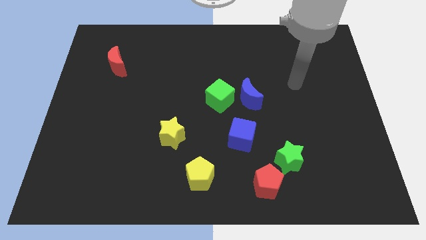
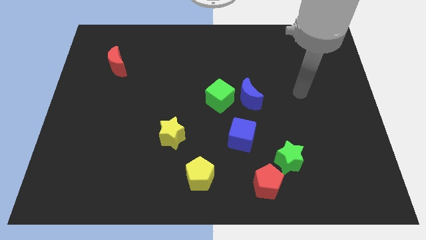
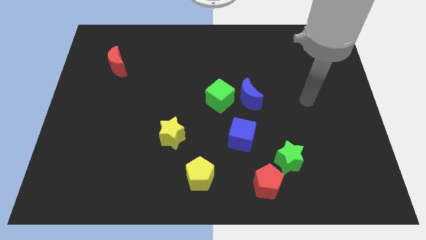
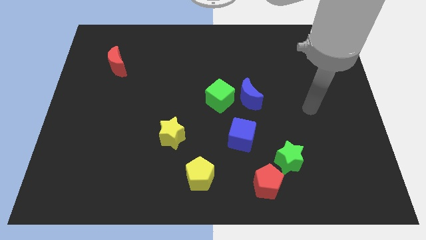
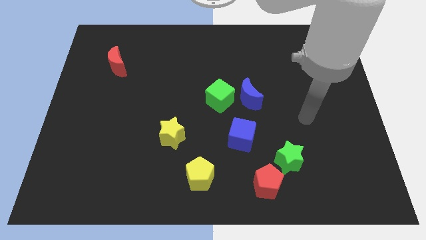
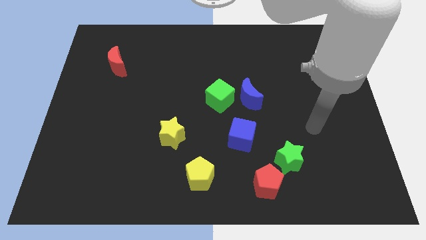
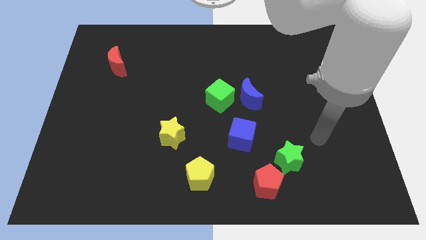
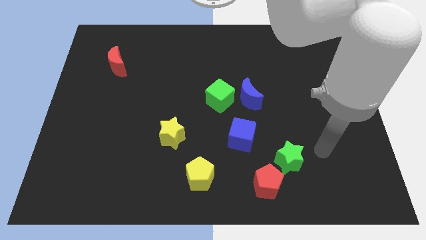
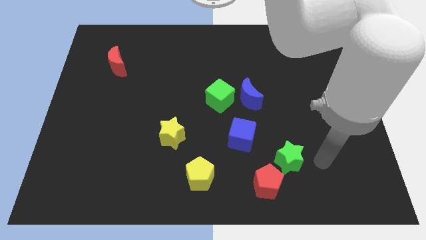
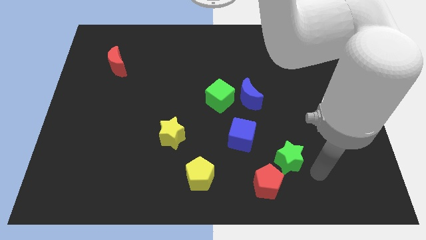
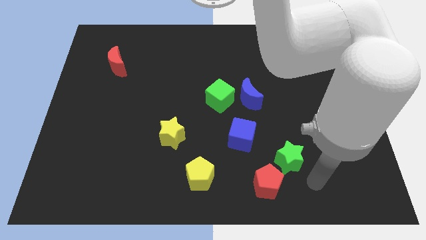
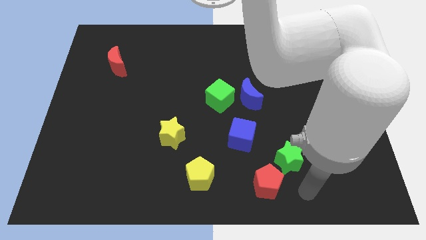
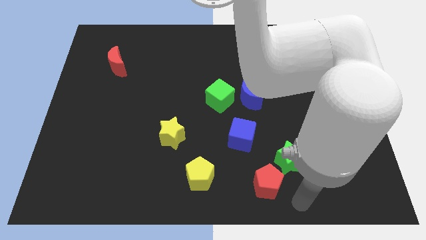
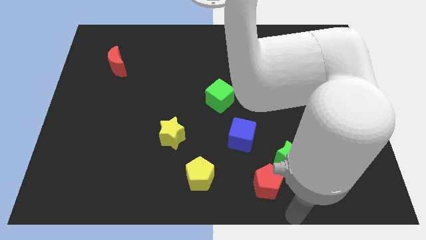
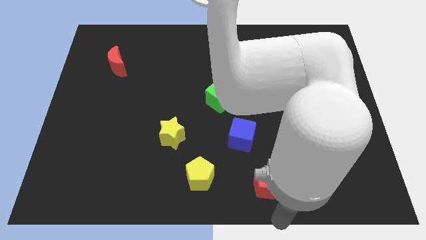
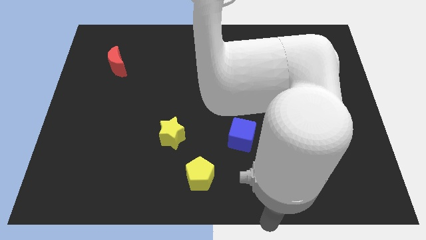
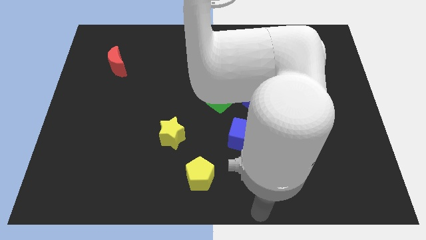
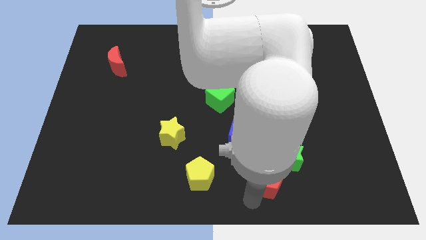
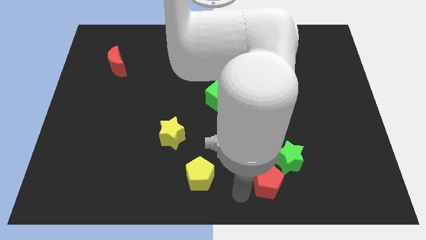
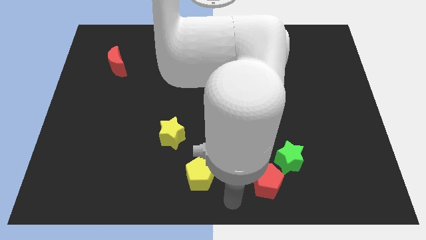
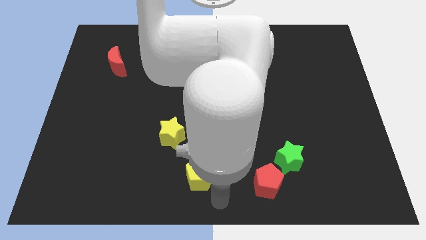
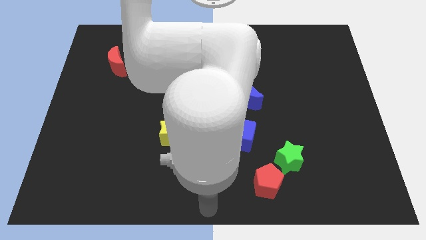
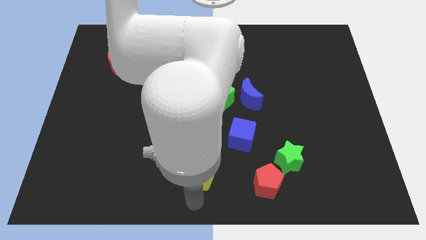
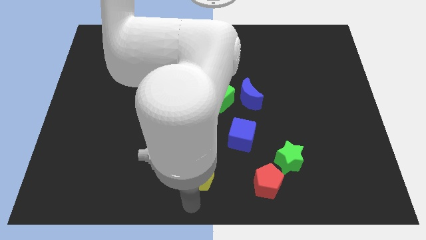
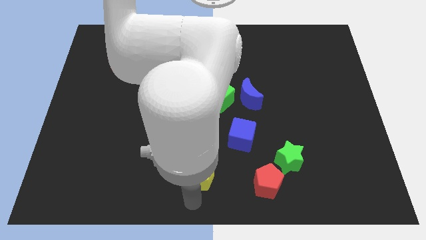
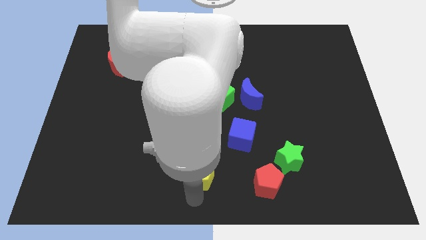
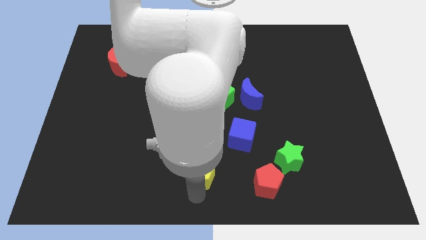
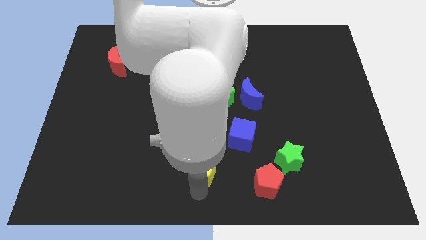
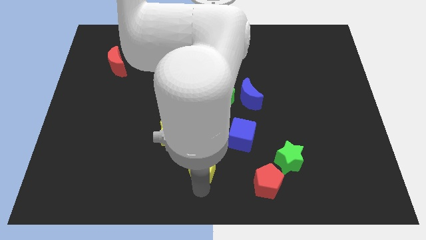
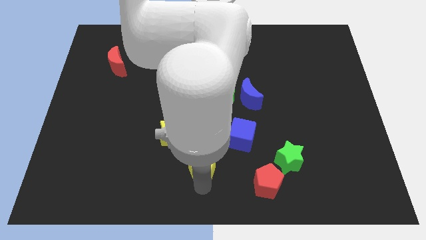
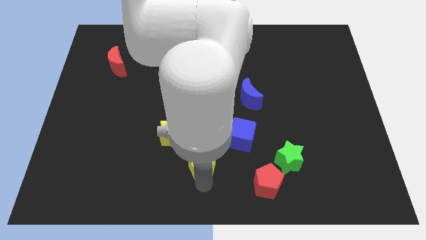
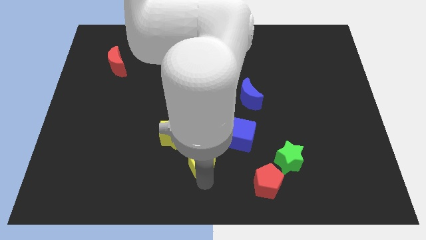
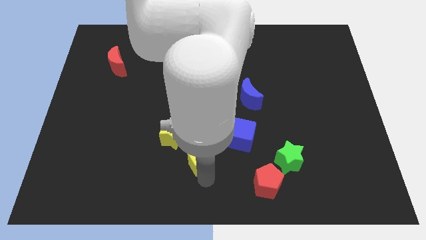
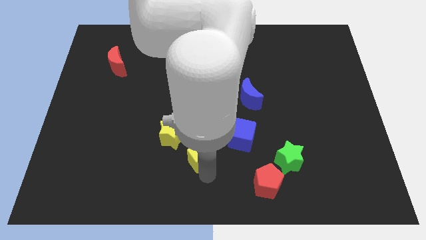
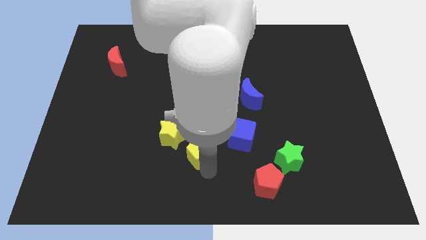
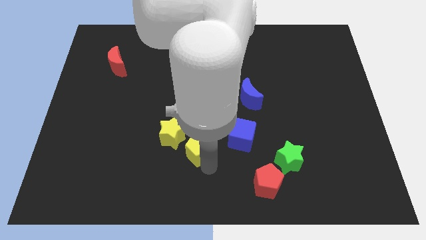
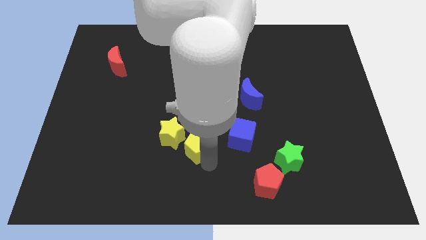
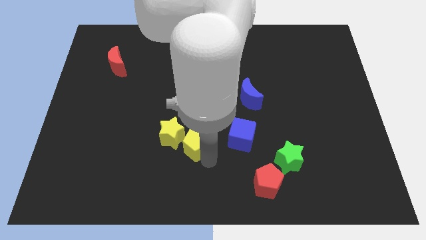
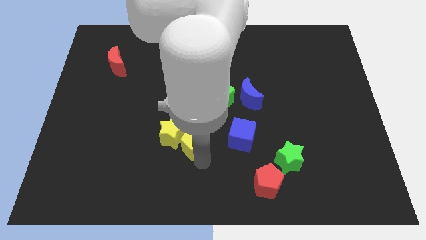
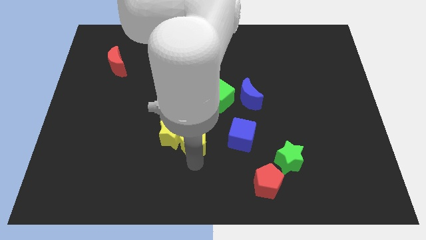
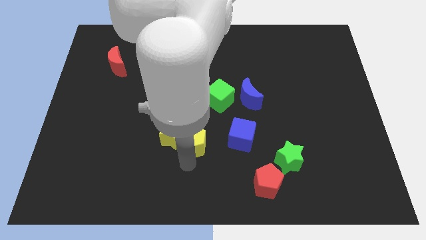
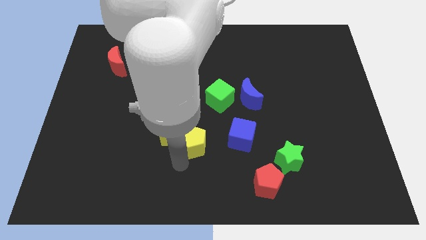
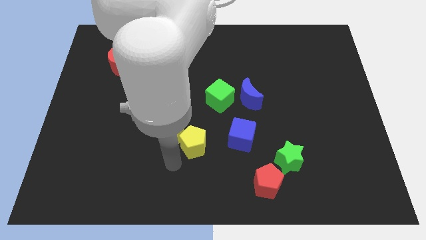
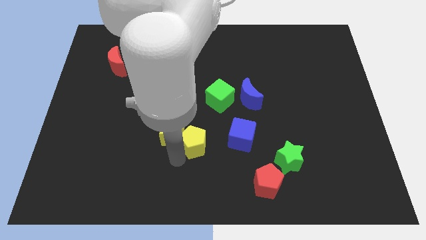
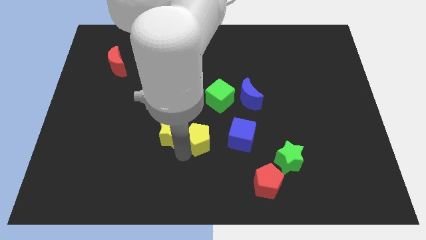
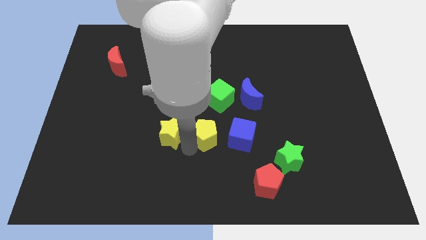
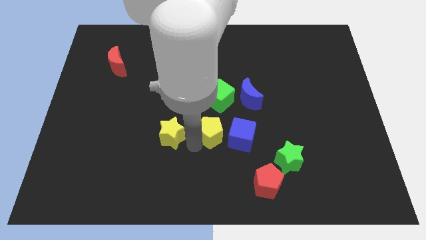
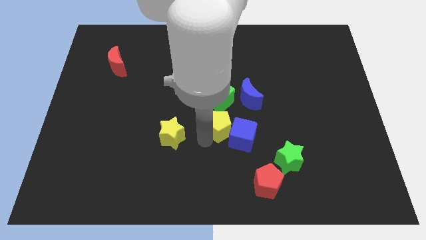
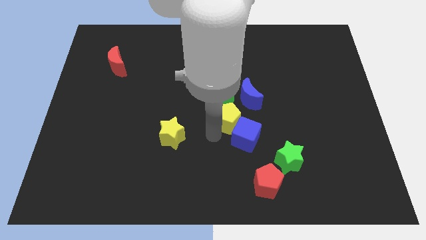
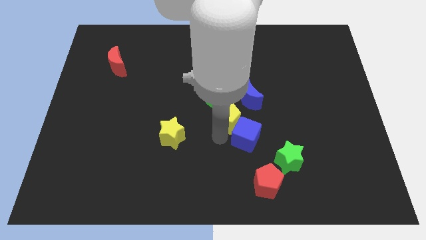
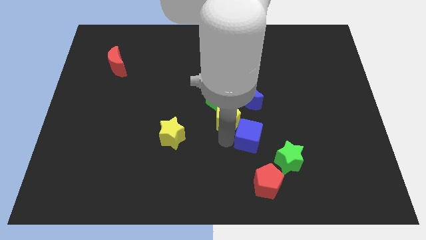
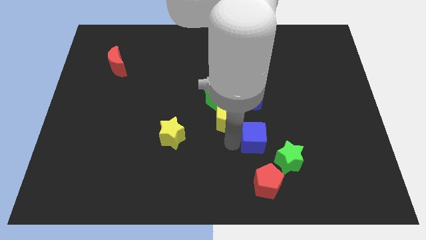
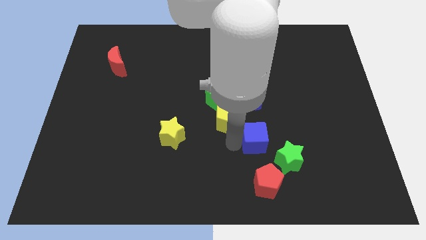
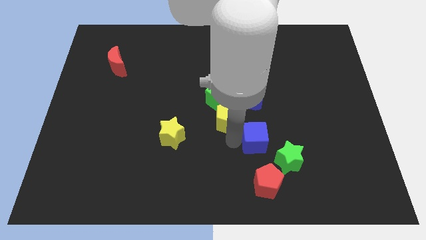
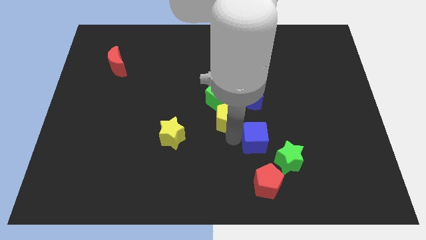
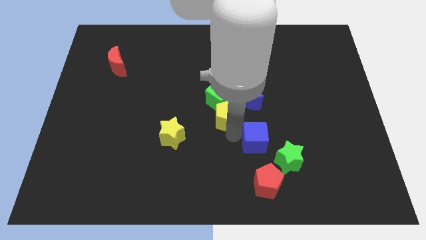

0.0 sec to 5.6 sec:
slide the yellow pentagon close to the green cube

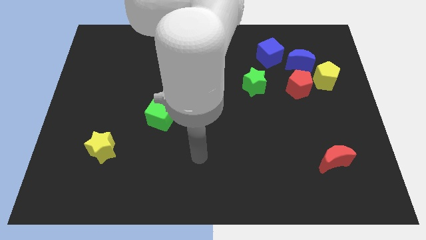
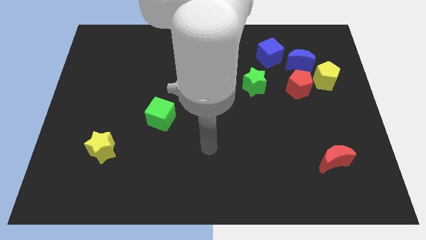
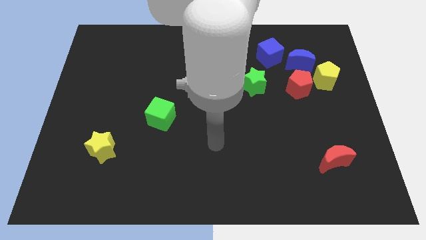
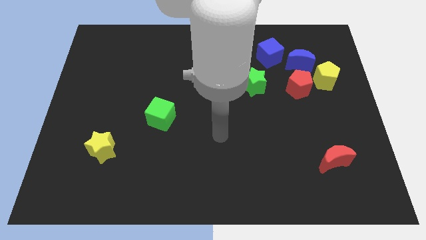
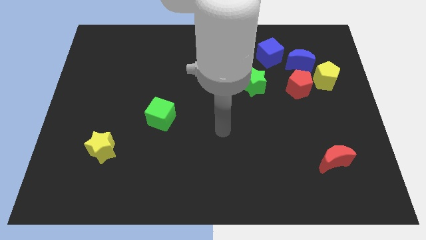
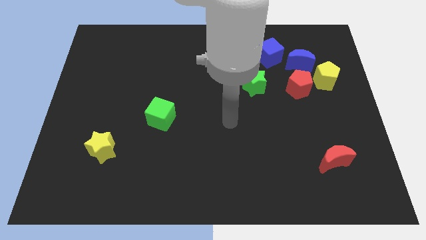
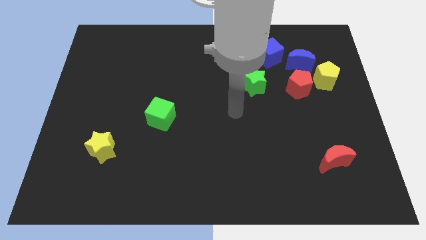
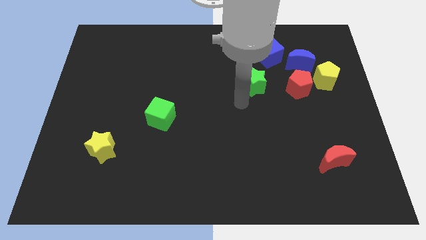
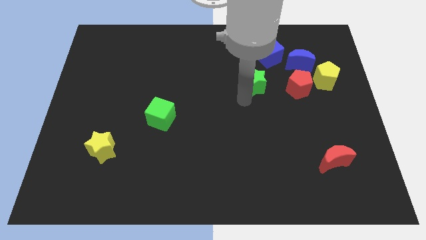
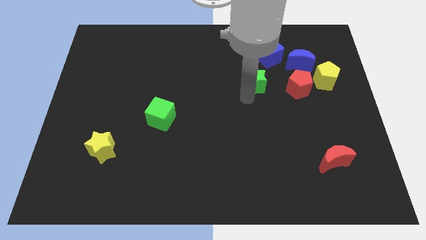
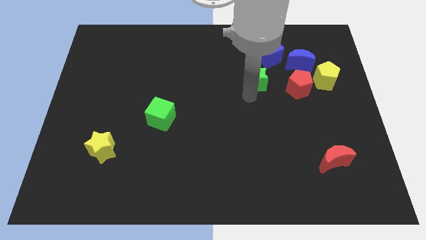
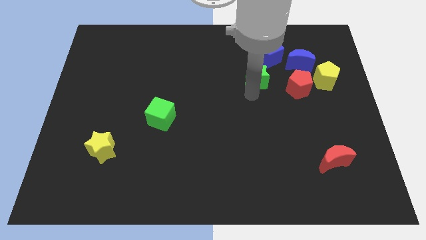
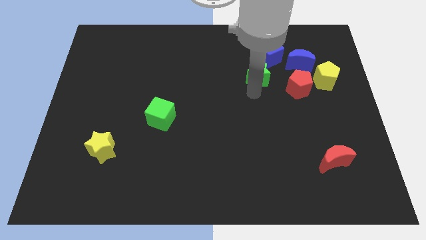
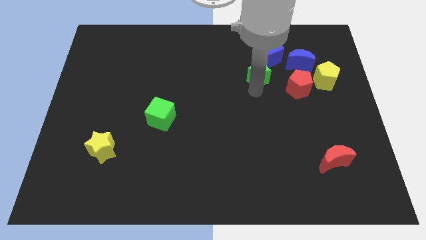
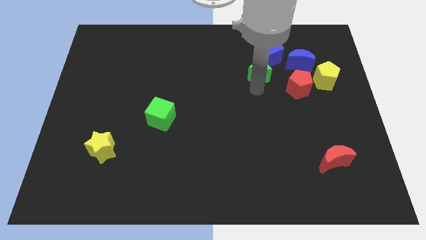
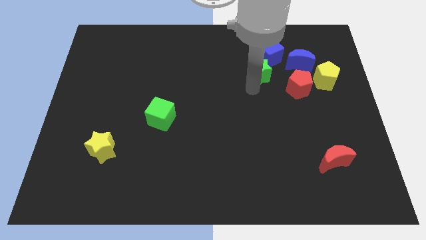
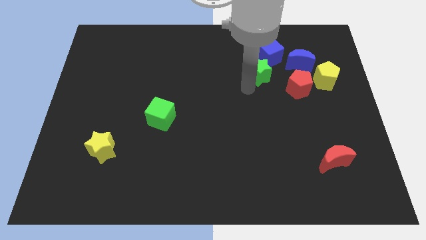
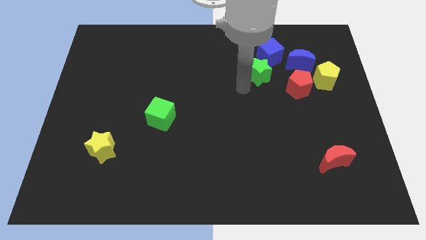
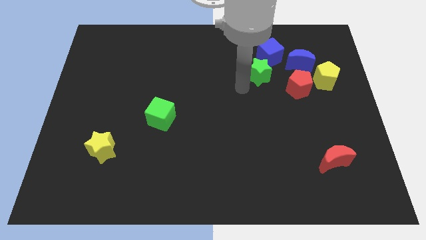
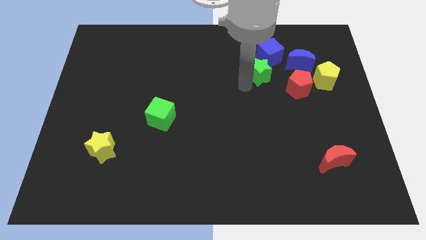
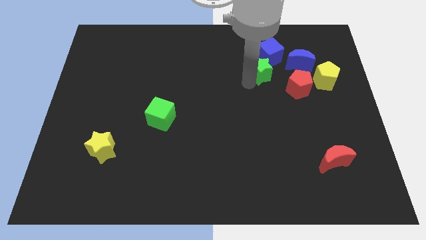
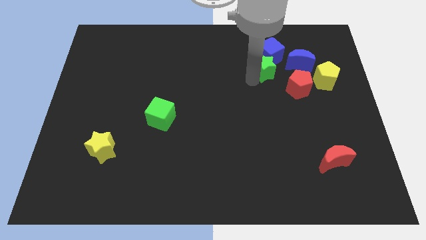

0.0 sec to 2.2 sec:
slide the green star close to the blue cube
